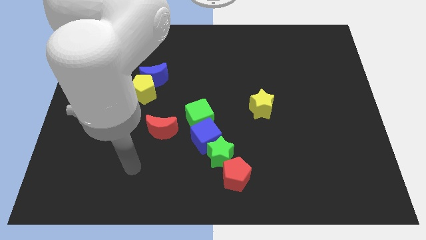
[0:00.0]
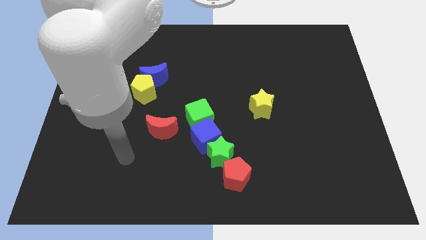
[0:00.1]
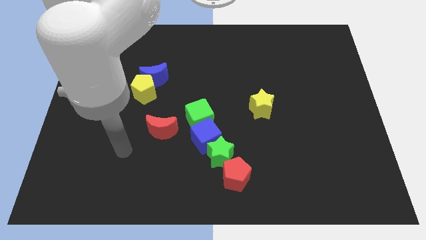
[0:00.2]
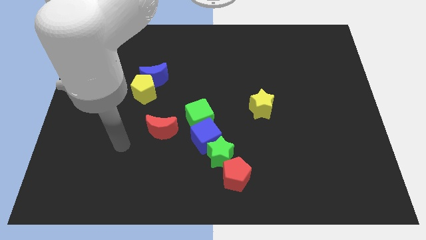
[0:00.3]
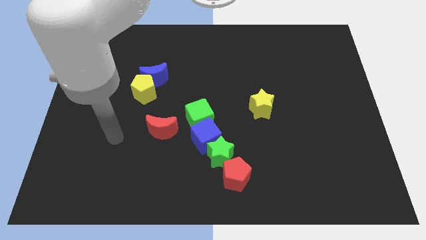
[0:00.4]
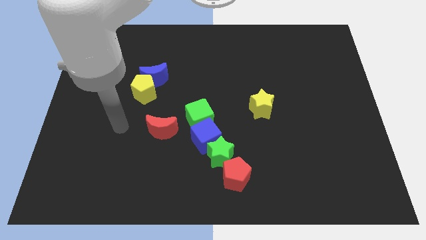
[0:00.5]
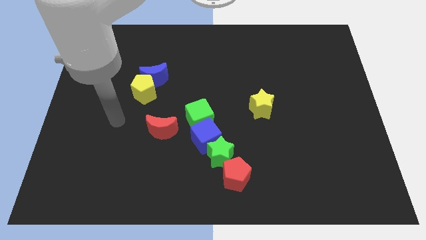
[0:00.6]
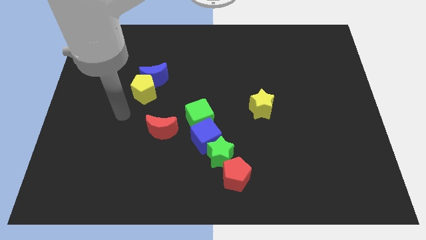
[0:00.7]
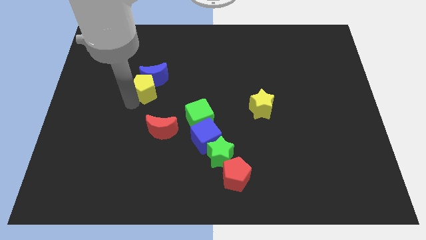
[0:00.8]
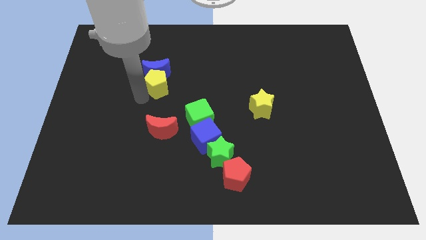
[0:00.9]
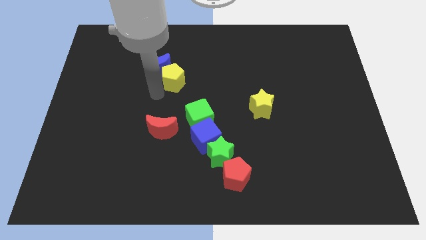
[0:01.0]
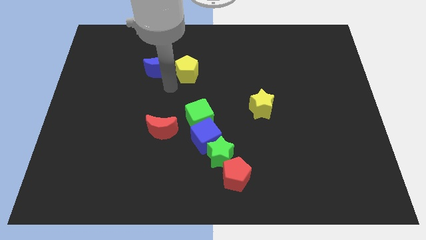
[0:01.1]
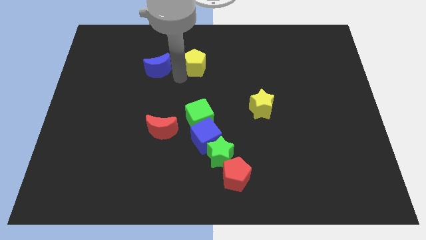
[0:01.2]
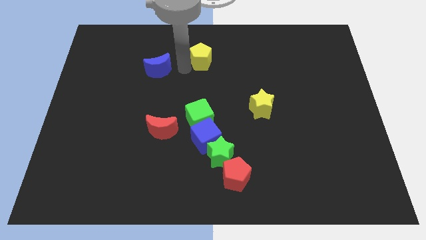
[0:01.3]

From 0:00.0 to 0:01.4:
separate the blue moon from the yellow pentagon

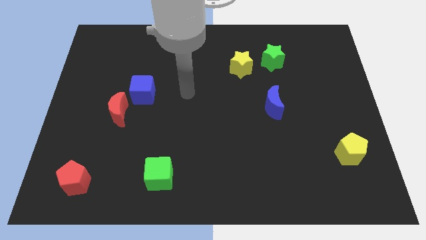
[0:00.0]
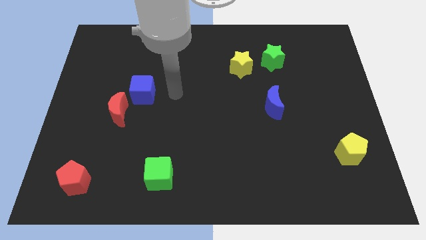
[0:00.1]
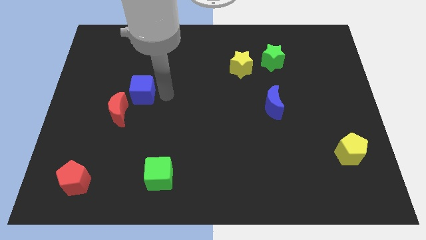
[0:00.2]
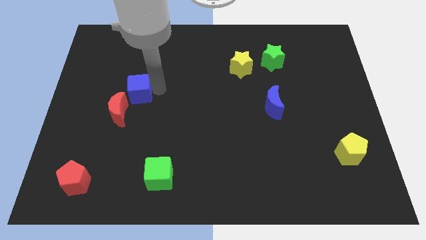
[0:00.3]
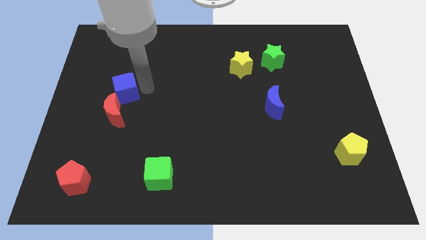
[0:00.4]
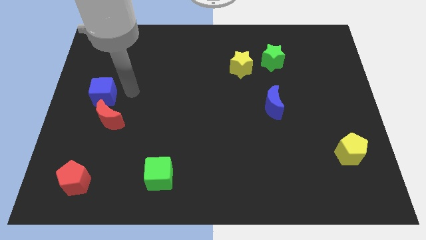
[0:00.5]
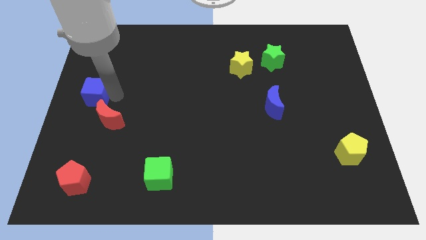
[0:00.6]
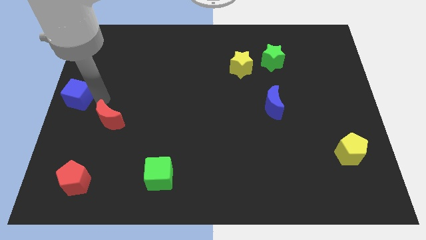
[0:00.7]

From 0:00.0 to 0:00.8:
separate the red moon from the blue cube

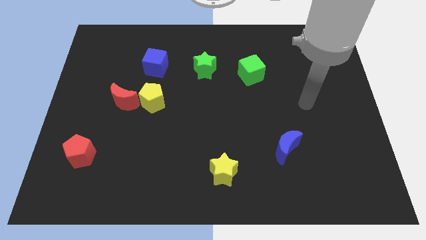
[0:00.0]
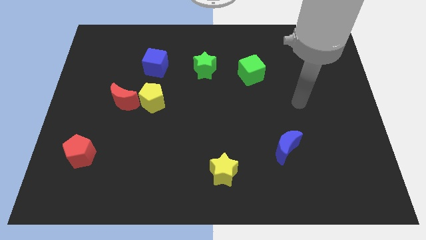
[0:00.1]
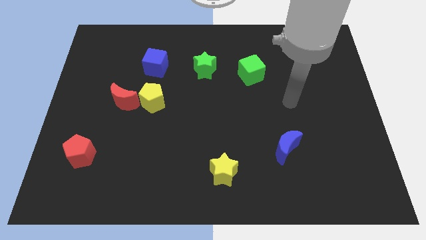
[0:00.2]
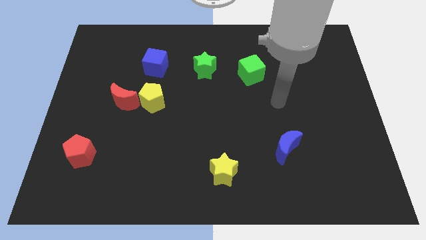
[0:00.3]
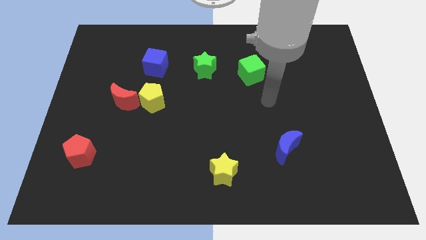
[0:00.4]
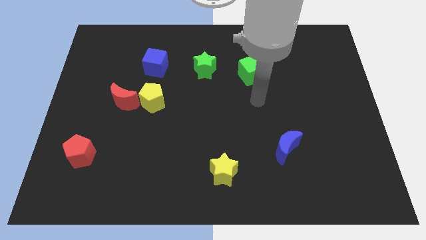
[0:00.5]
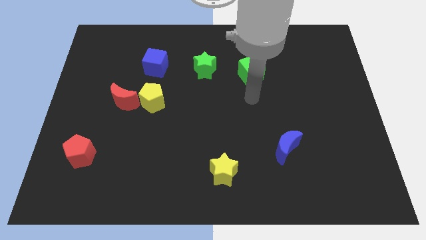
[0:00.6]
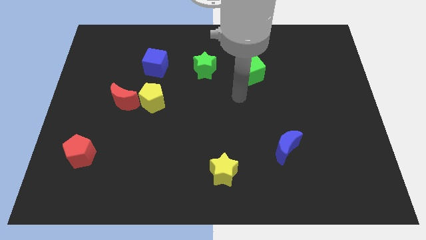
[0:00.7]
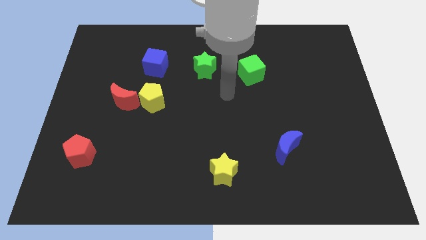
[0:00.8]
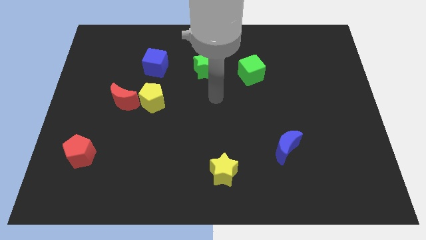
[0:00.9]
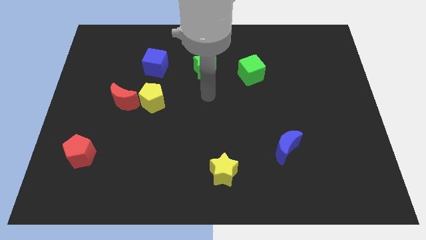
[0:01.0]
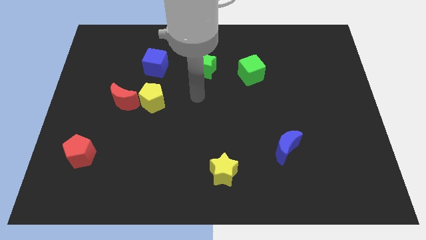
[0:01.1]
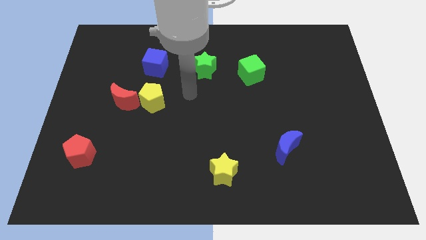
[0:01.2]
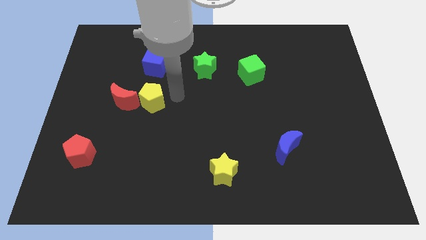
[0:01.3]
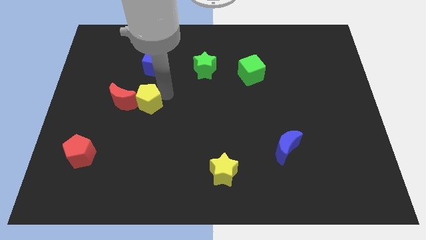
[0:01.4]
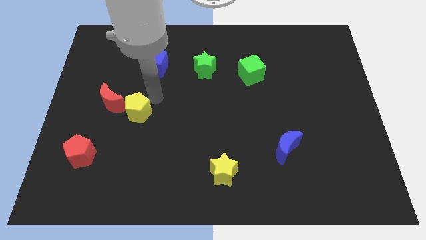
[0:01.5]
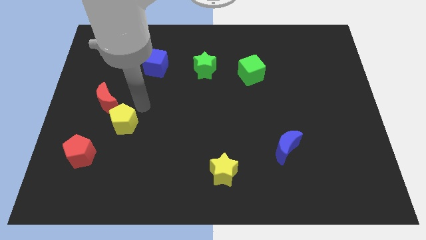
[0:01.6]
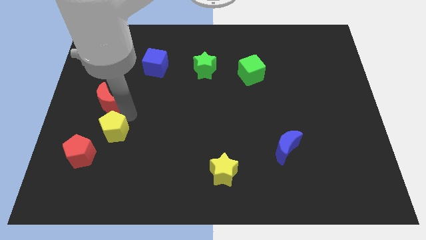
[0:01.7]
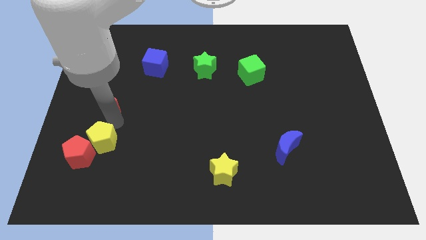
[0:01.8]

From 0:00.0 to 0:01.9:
separate the red moon from the yellow pentagon

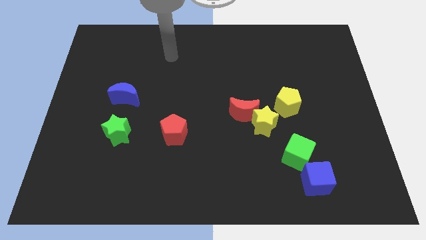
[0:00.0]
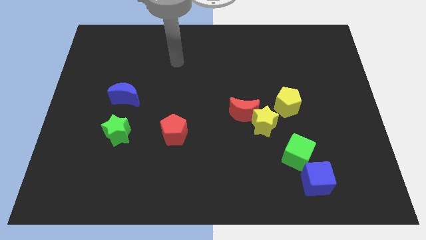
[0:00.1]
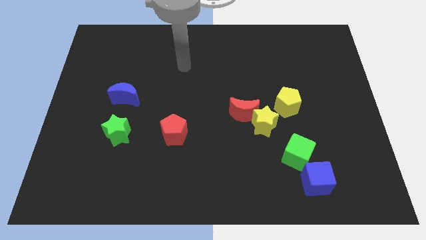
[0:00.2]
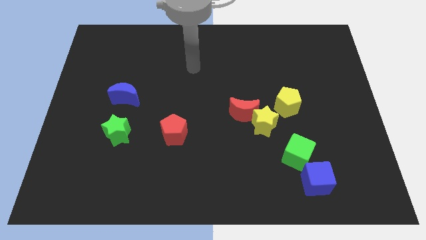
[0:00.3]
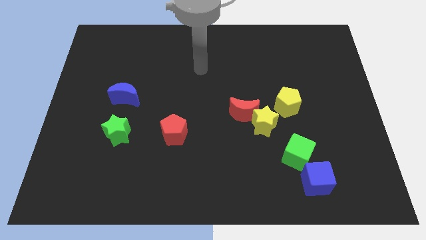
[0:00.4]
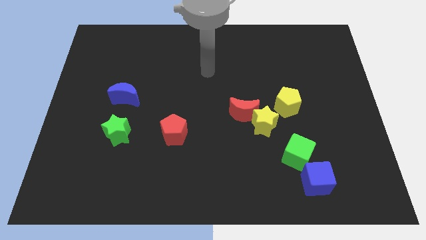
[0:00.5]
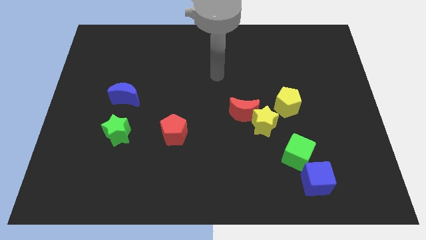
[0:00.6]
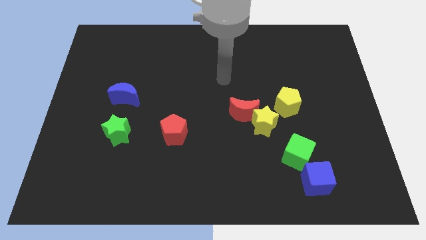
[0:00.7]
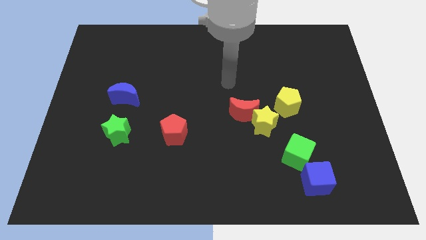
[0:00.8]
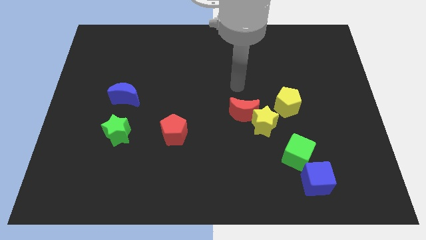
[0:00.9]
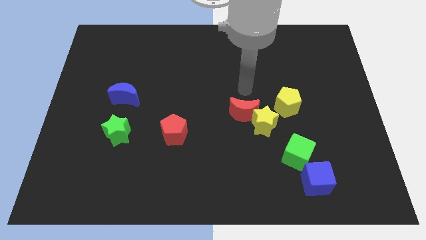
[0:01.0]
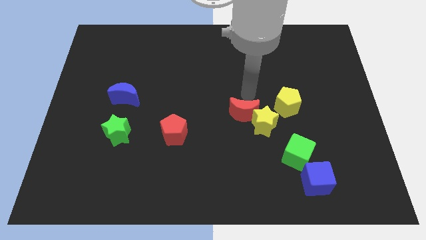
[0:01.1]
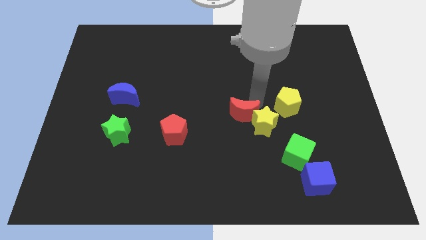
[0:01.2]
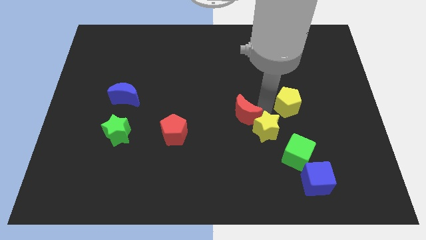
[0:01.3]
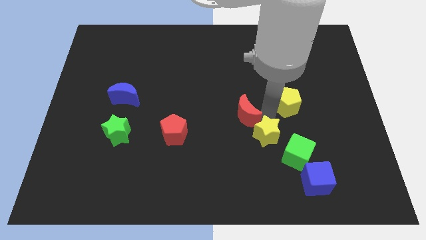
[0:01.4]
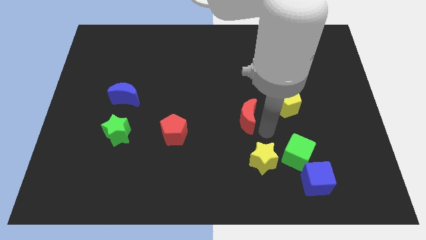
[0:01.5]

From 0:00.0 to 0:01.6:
separate the red moon from the yellow star

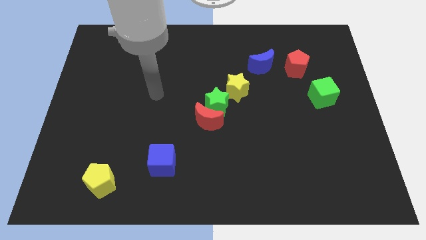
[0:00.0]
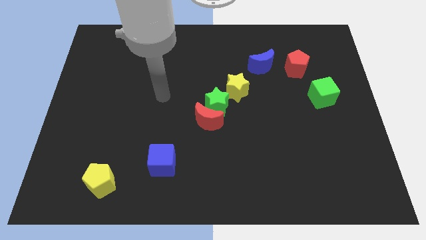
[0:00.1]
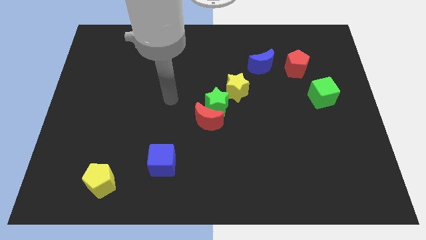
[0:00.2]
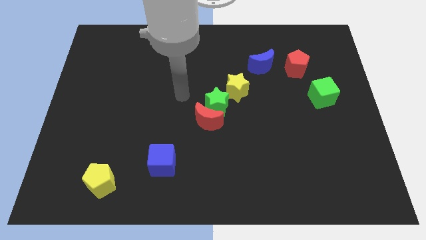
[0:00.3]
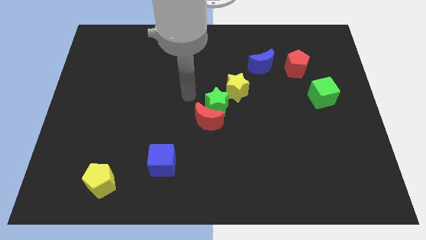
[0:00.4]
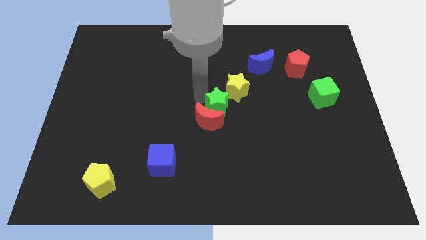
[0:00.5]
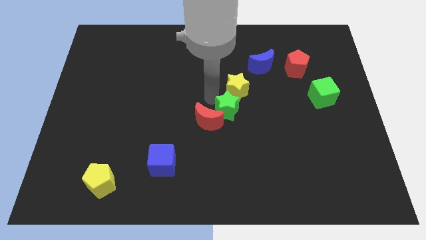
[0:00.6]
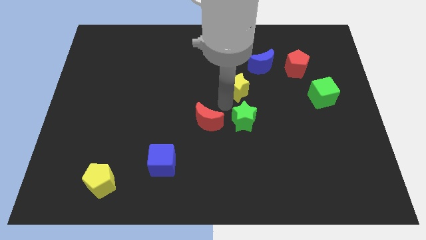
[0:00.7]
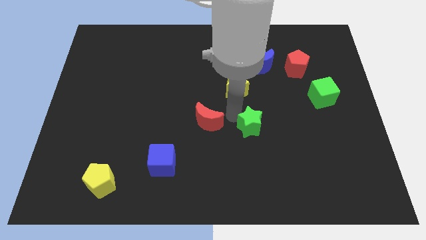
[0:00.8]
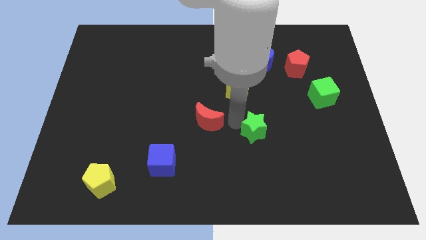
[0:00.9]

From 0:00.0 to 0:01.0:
separate the red moon from the green star

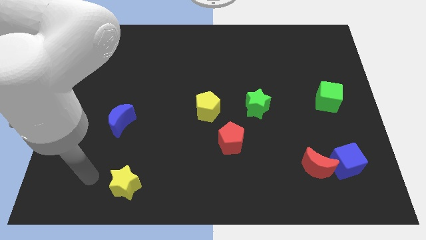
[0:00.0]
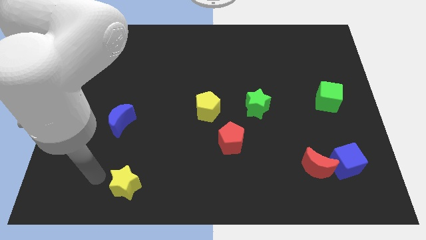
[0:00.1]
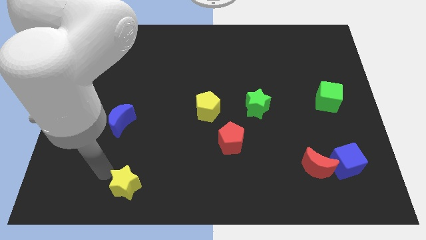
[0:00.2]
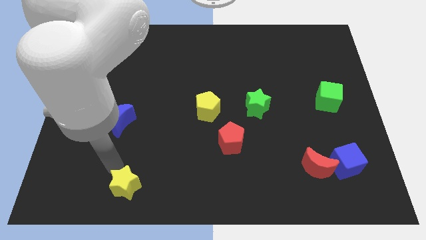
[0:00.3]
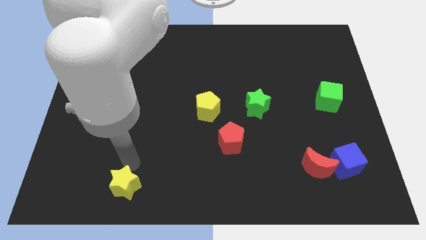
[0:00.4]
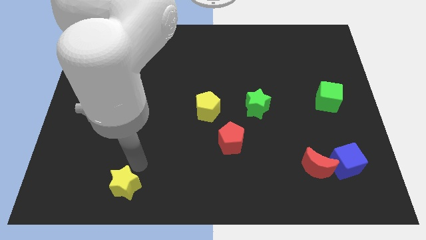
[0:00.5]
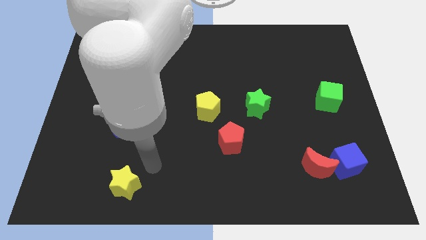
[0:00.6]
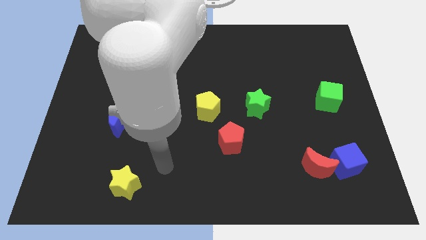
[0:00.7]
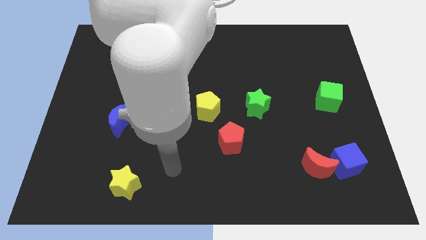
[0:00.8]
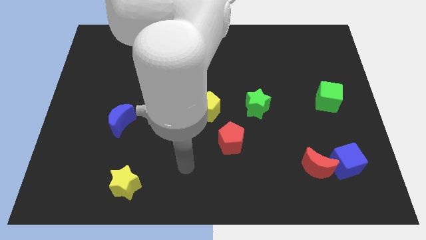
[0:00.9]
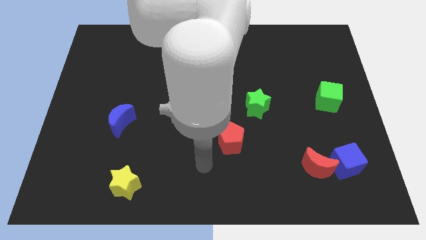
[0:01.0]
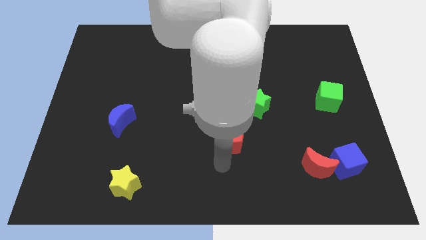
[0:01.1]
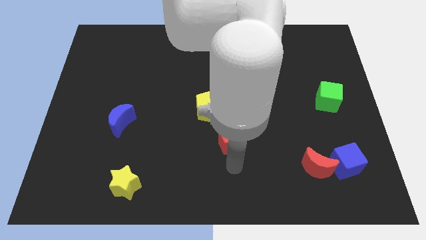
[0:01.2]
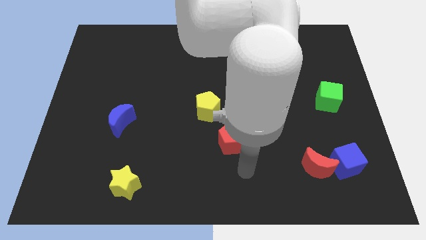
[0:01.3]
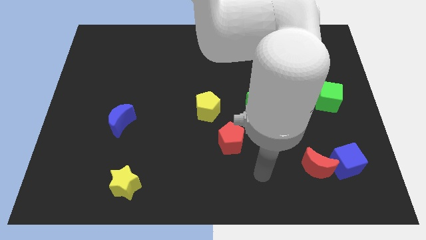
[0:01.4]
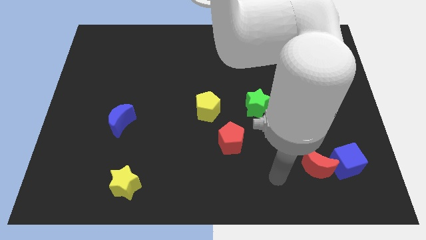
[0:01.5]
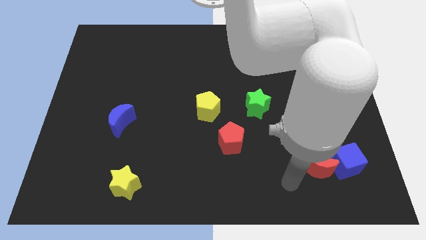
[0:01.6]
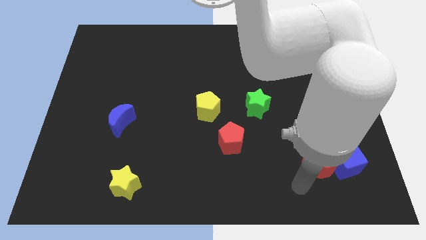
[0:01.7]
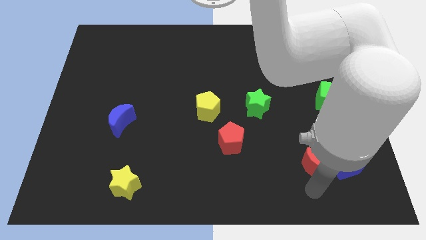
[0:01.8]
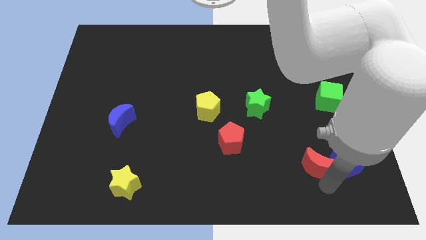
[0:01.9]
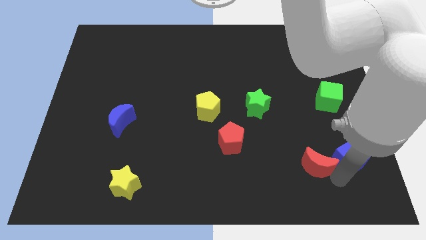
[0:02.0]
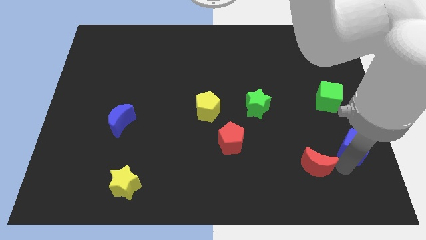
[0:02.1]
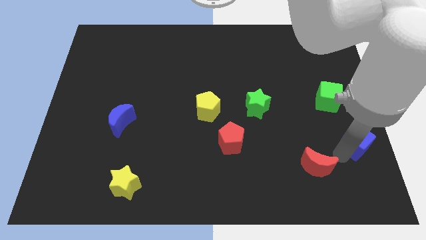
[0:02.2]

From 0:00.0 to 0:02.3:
pull the red moon apart from the blue cube

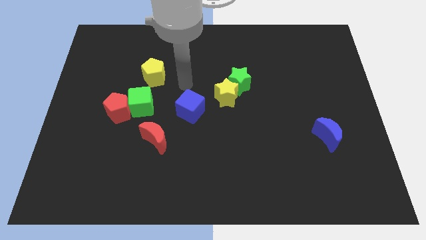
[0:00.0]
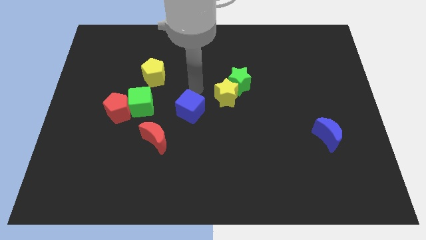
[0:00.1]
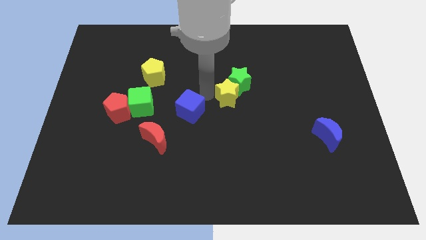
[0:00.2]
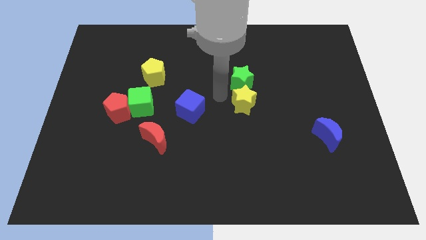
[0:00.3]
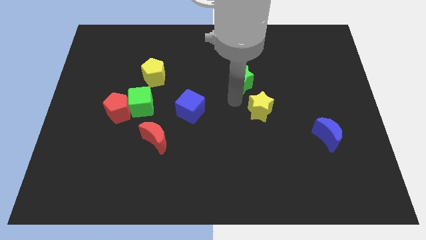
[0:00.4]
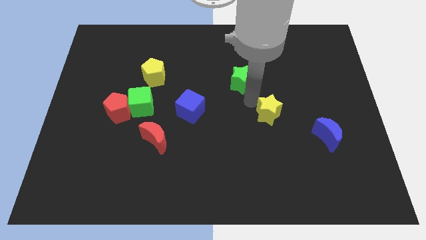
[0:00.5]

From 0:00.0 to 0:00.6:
separate the green star from the yellow star
